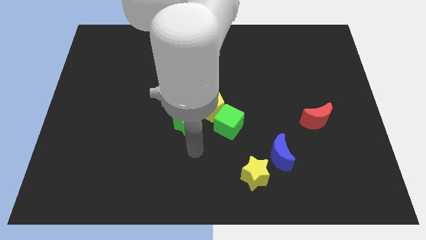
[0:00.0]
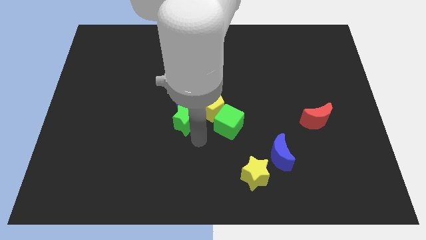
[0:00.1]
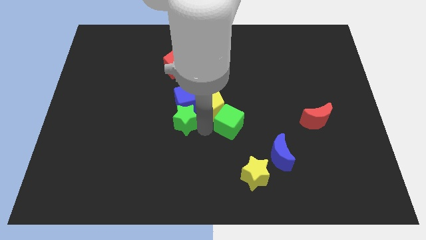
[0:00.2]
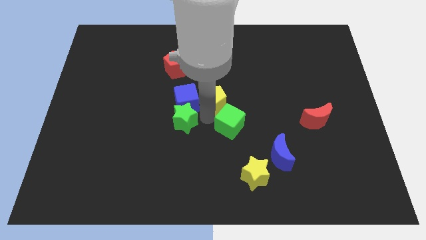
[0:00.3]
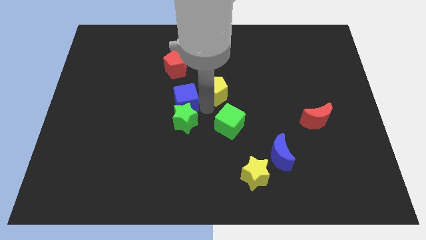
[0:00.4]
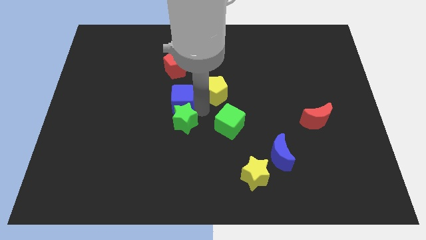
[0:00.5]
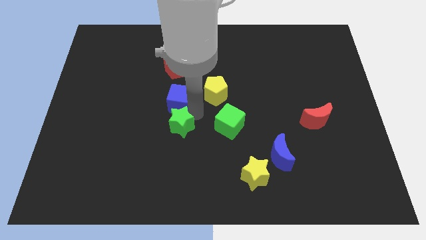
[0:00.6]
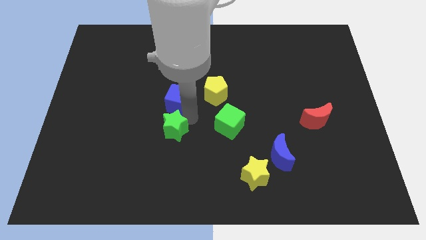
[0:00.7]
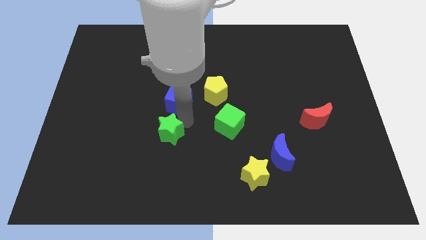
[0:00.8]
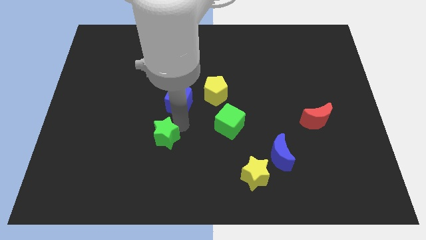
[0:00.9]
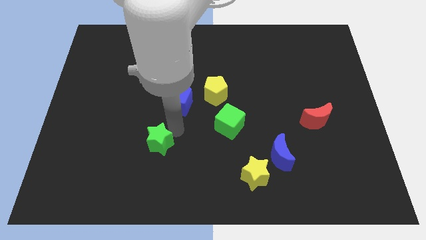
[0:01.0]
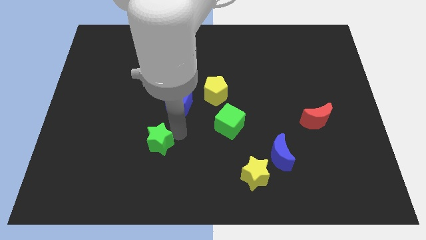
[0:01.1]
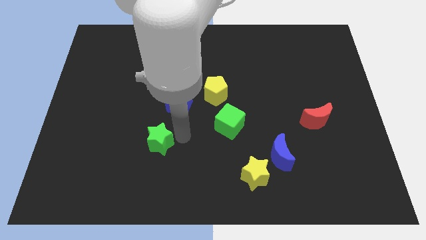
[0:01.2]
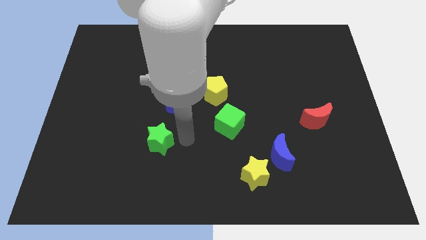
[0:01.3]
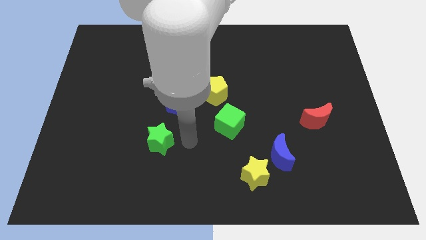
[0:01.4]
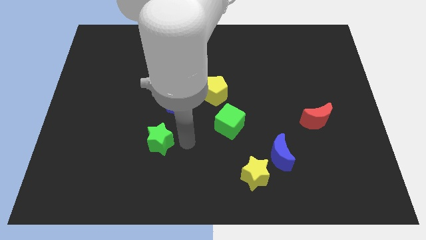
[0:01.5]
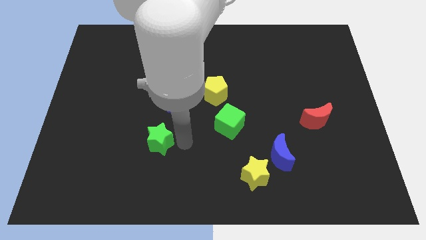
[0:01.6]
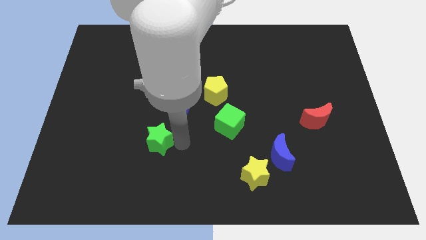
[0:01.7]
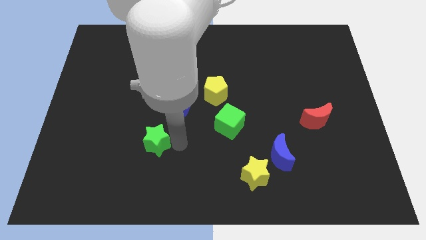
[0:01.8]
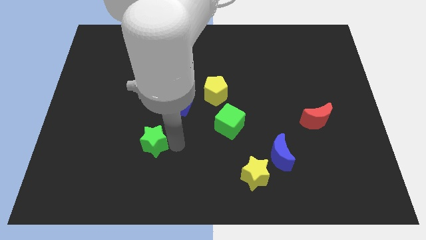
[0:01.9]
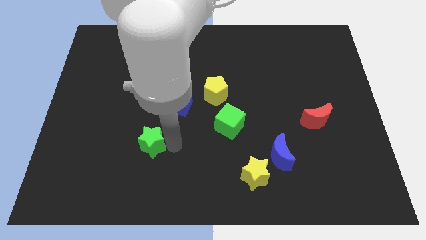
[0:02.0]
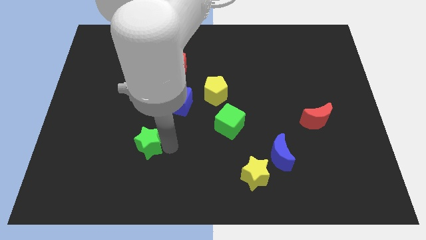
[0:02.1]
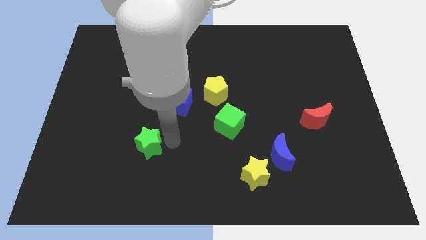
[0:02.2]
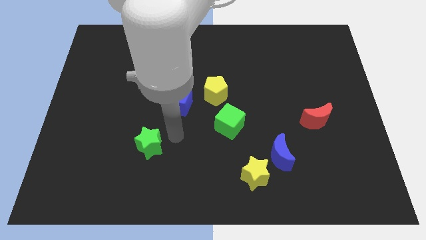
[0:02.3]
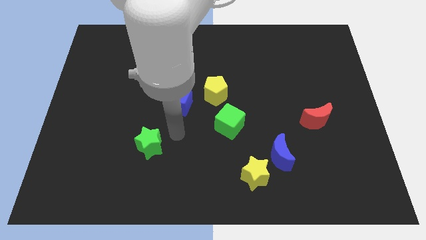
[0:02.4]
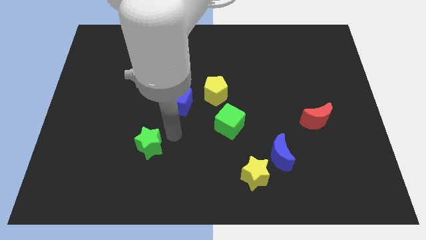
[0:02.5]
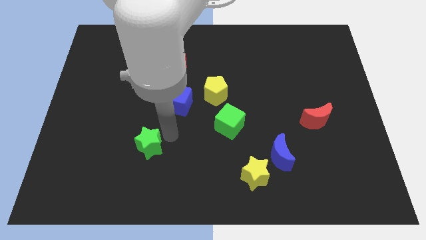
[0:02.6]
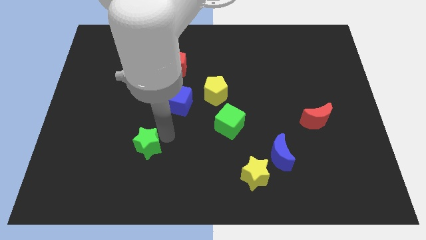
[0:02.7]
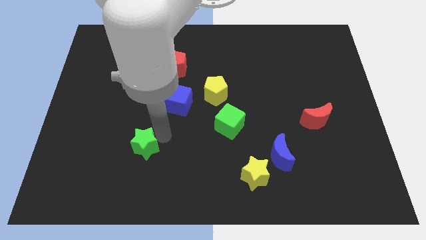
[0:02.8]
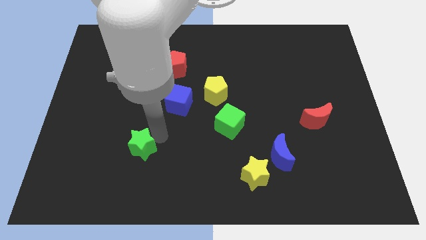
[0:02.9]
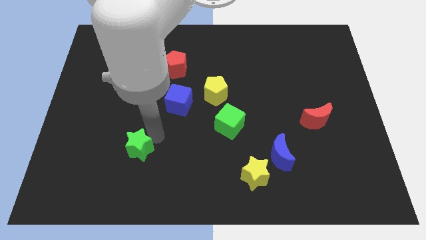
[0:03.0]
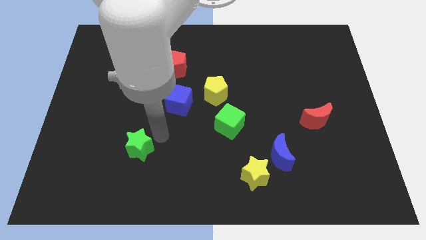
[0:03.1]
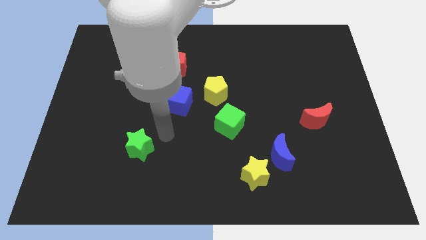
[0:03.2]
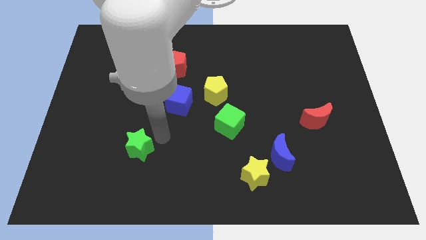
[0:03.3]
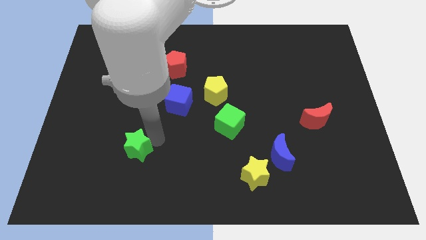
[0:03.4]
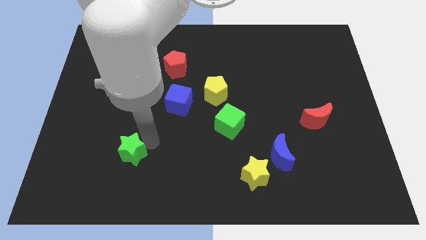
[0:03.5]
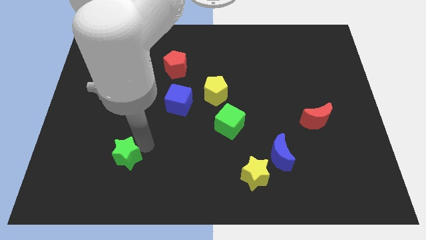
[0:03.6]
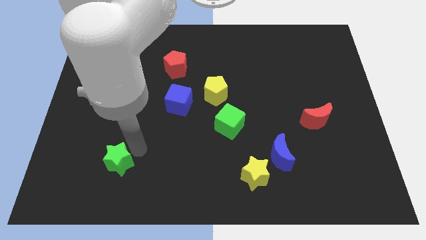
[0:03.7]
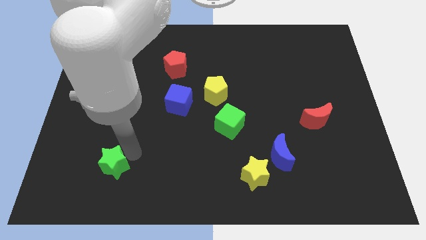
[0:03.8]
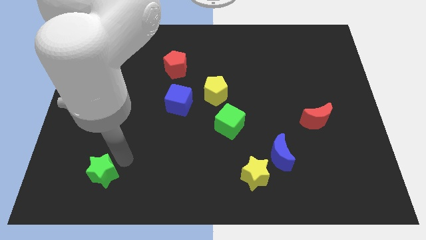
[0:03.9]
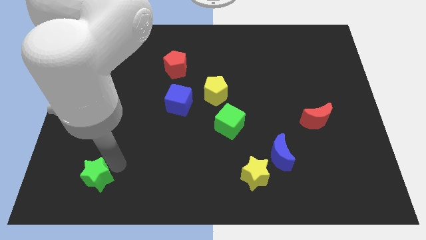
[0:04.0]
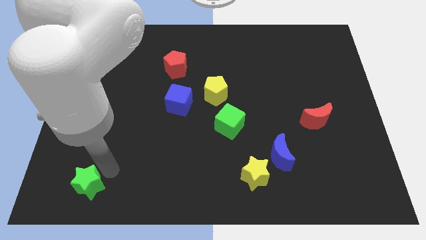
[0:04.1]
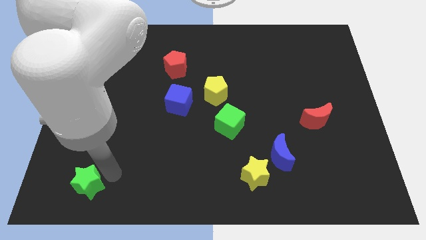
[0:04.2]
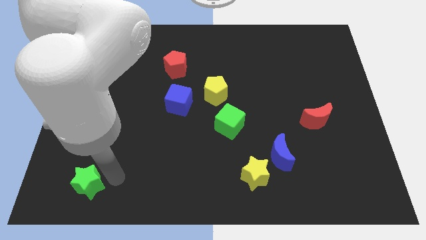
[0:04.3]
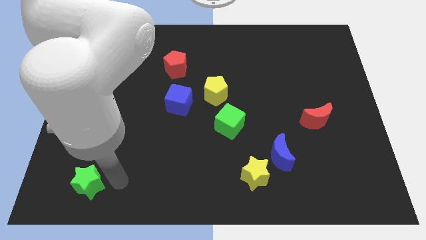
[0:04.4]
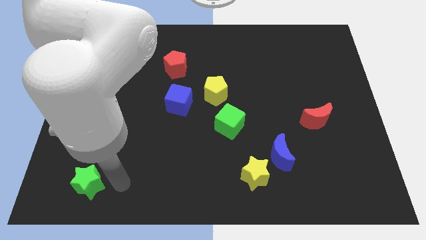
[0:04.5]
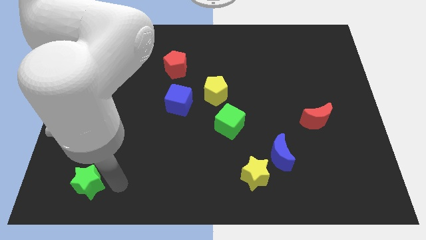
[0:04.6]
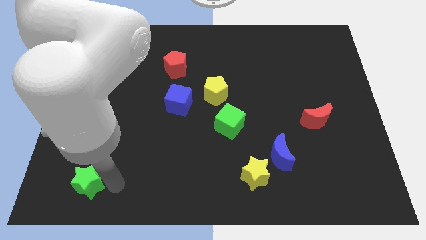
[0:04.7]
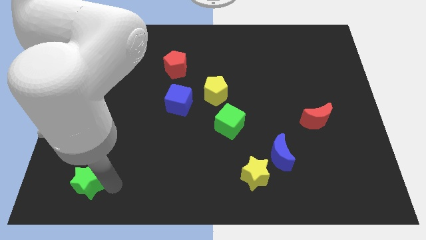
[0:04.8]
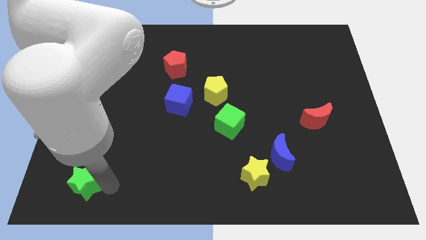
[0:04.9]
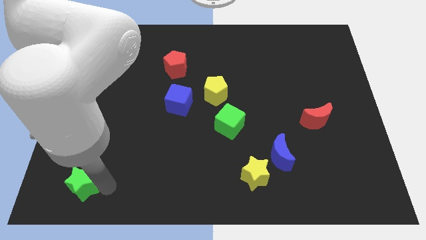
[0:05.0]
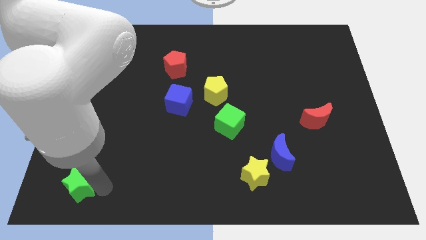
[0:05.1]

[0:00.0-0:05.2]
move the green star to the bottom left

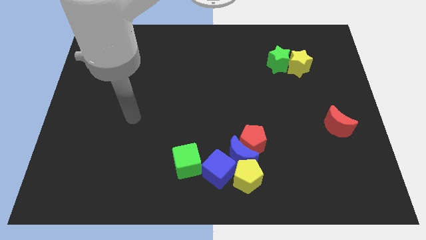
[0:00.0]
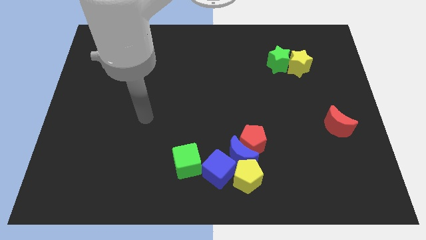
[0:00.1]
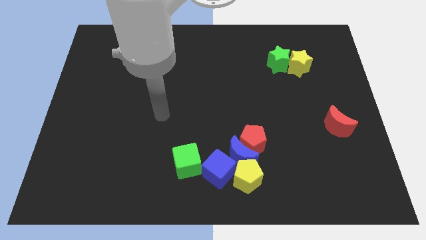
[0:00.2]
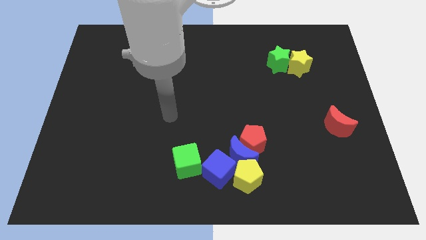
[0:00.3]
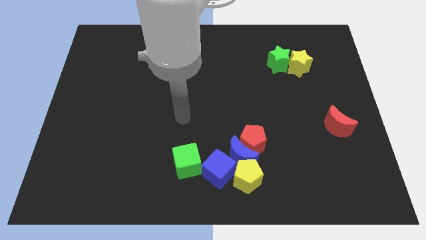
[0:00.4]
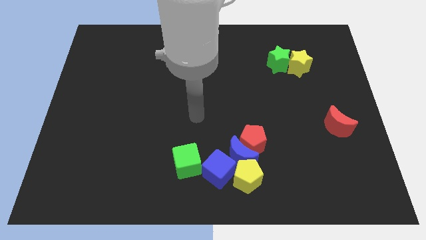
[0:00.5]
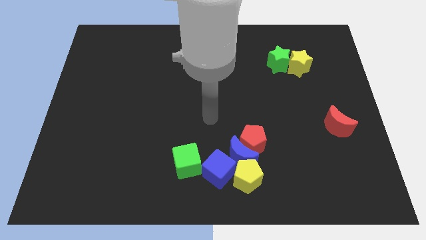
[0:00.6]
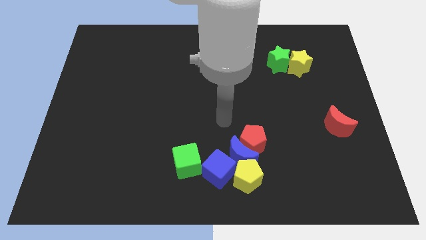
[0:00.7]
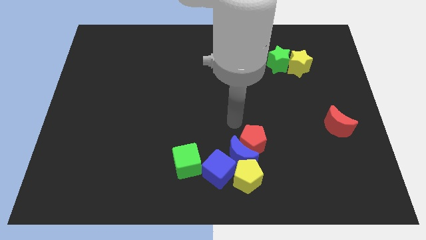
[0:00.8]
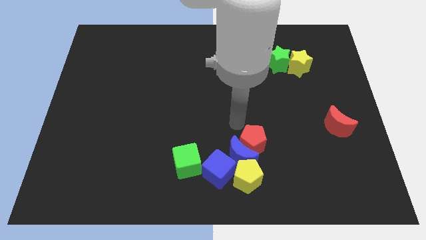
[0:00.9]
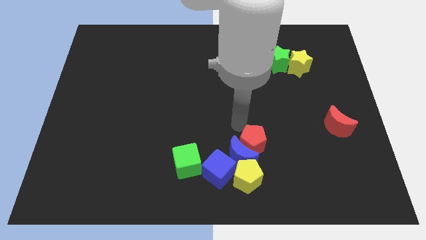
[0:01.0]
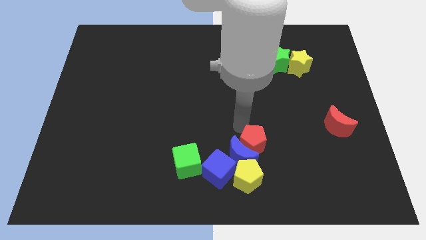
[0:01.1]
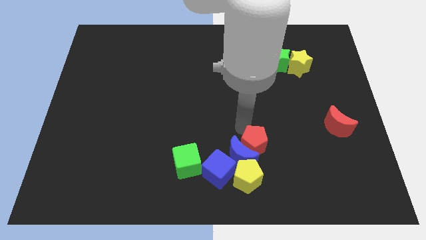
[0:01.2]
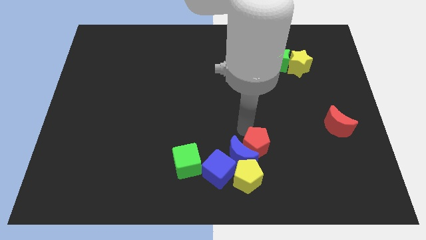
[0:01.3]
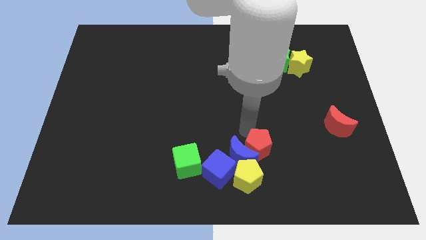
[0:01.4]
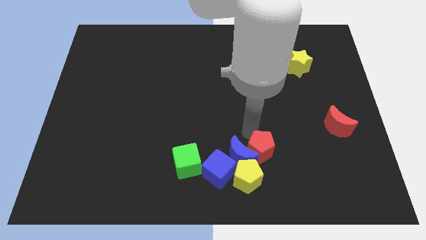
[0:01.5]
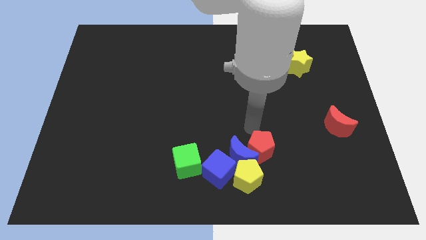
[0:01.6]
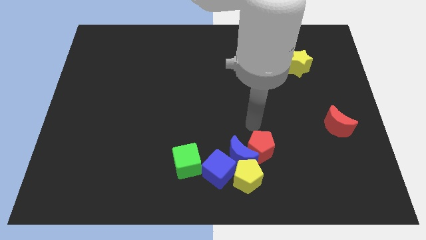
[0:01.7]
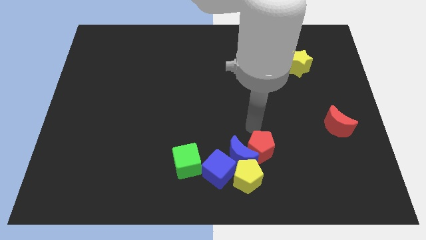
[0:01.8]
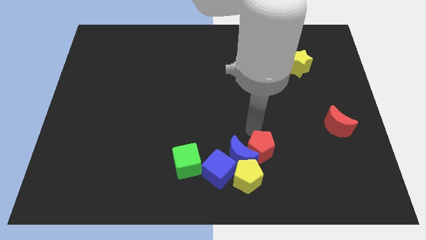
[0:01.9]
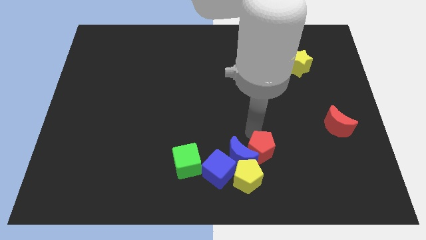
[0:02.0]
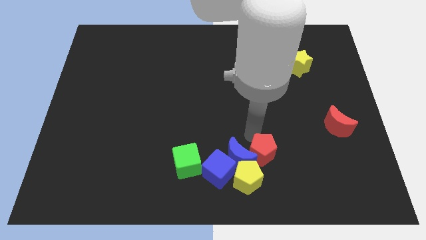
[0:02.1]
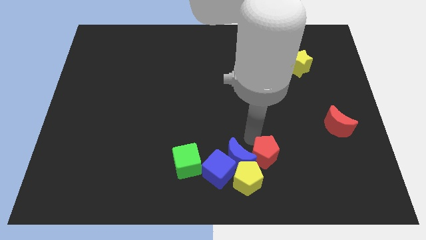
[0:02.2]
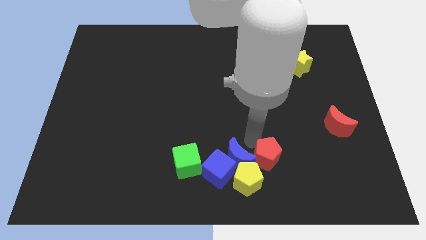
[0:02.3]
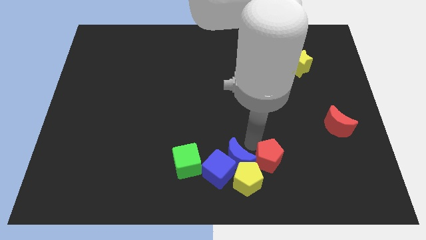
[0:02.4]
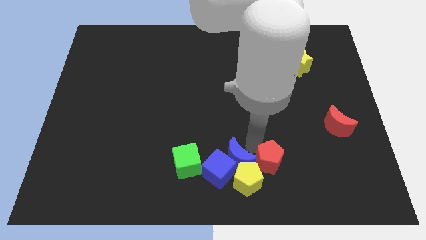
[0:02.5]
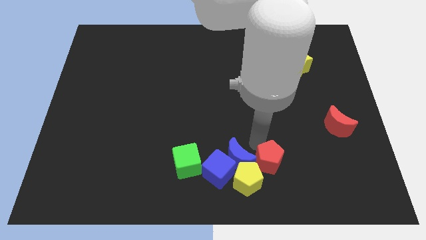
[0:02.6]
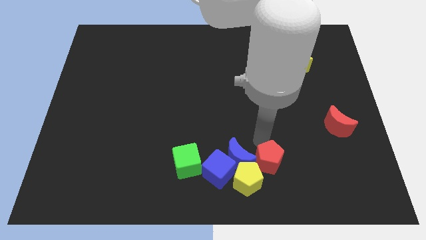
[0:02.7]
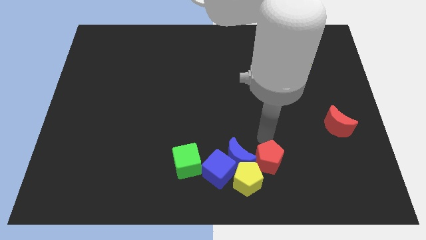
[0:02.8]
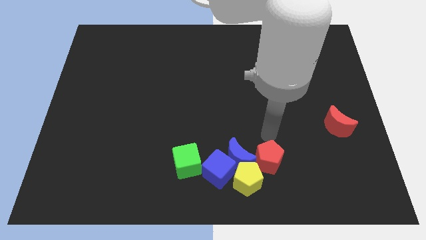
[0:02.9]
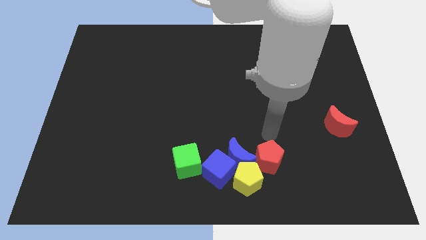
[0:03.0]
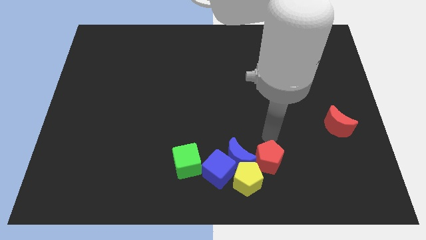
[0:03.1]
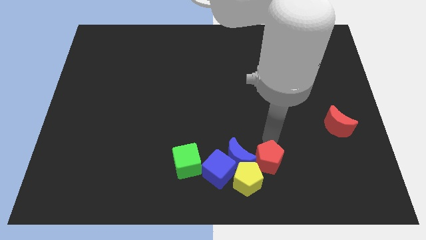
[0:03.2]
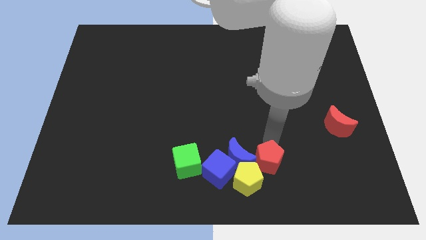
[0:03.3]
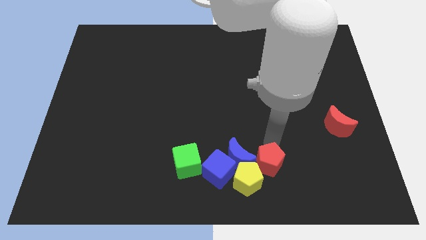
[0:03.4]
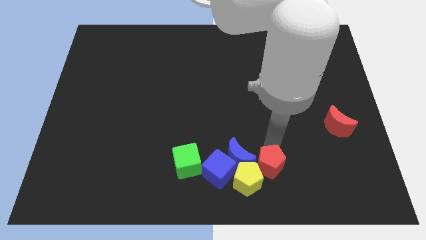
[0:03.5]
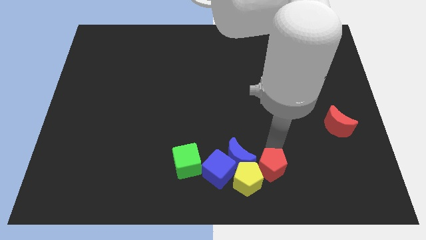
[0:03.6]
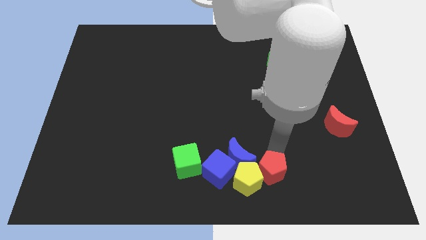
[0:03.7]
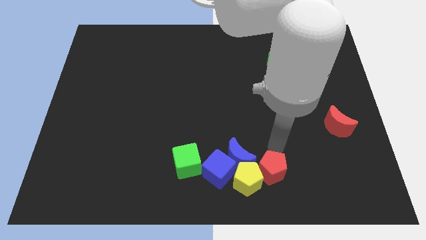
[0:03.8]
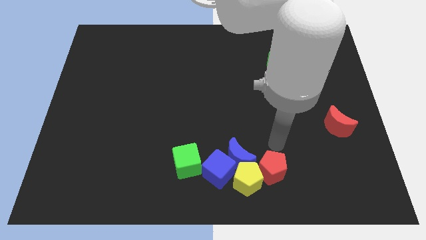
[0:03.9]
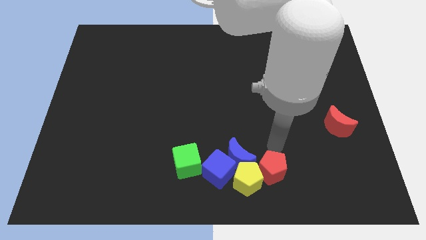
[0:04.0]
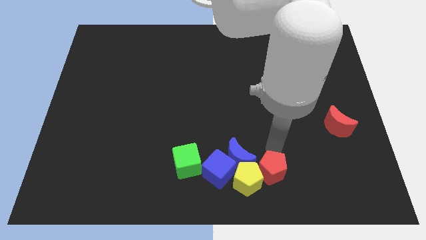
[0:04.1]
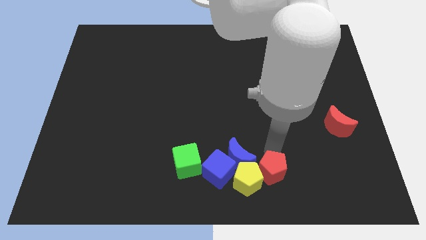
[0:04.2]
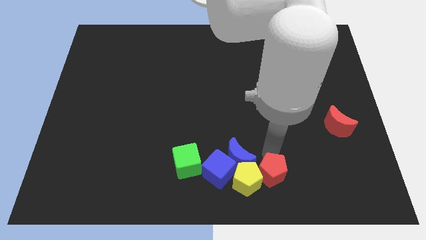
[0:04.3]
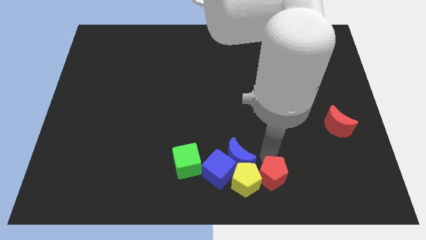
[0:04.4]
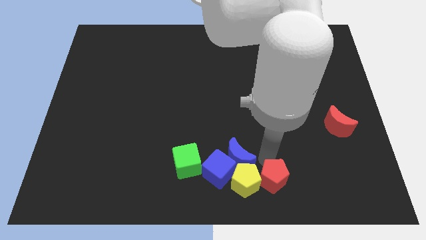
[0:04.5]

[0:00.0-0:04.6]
put the red pentagon to the bottom
